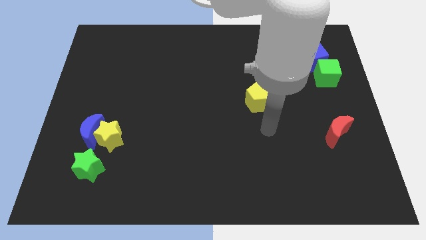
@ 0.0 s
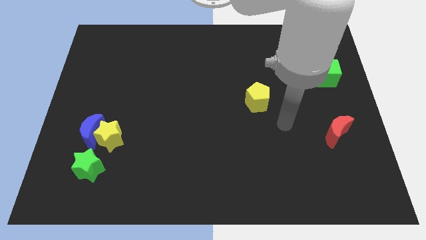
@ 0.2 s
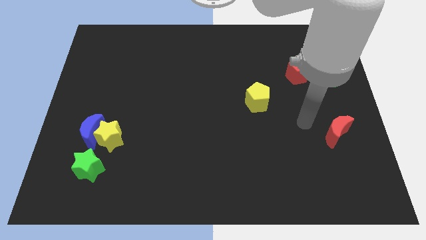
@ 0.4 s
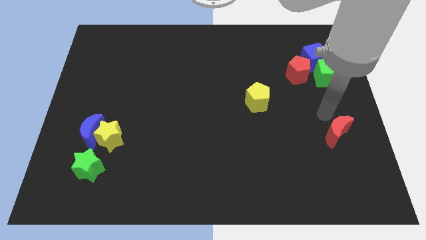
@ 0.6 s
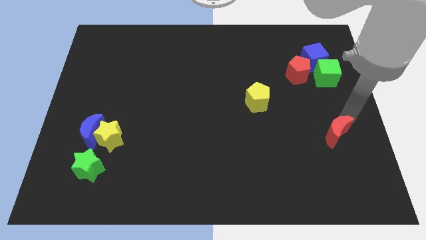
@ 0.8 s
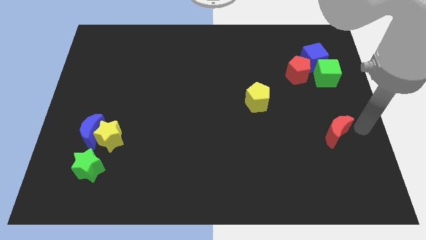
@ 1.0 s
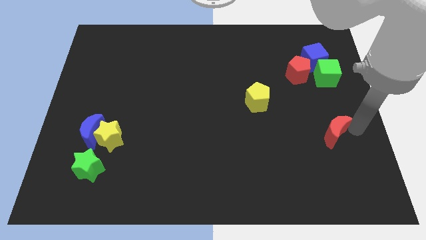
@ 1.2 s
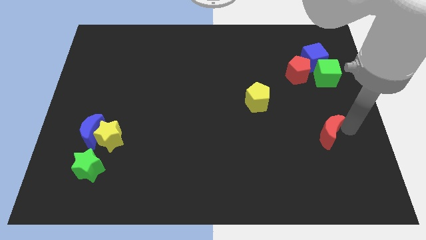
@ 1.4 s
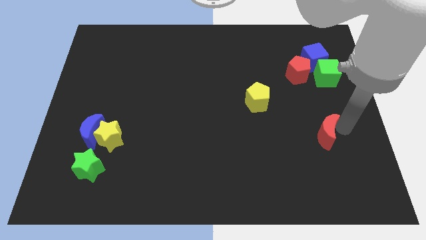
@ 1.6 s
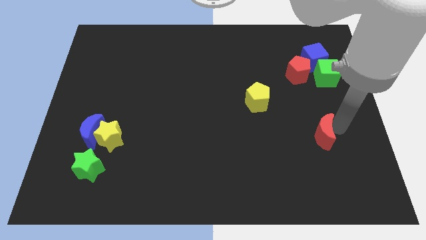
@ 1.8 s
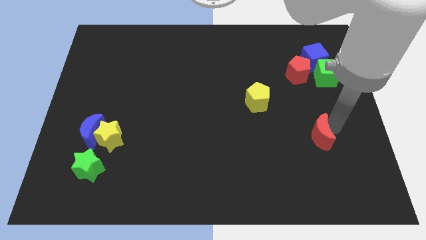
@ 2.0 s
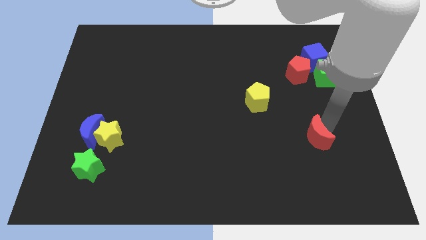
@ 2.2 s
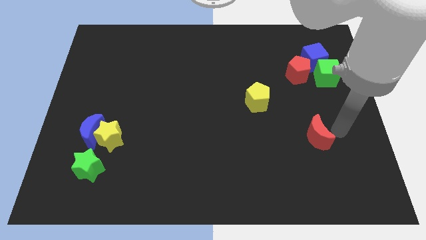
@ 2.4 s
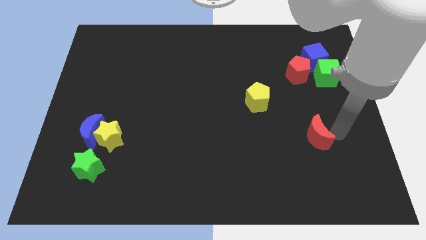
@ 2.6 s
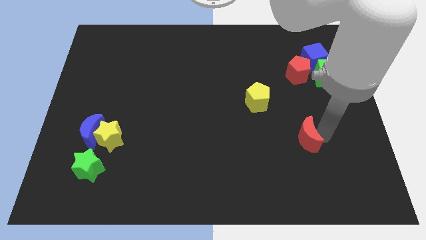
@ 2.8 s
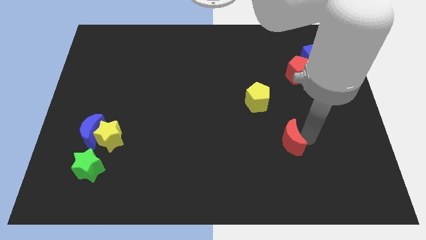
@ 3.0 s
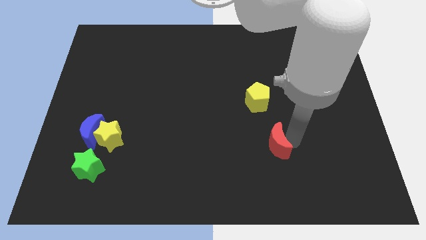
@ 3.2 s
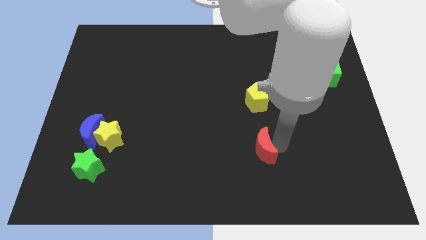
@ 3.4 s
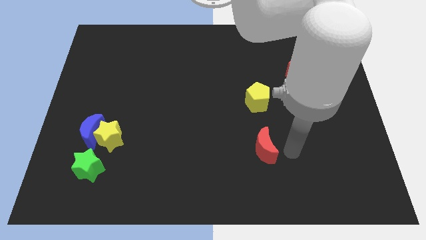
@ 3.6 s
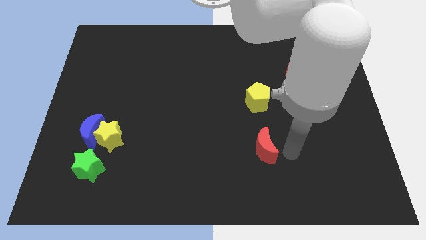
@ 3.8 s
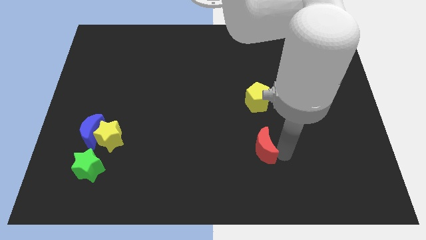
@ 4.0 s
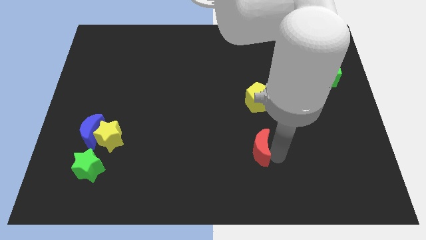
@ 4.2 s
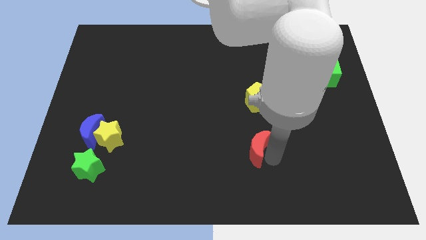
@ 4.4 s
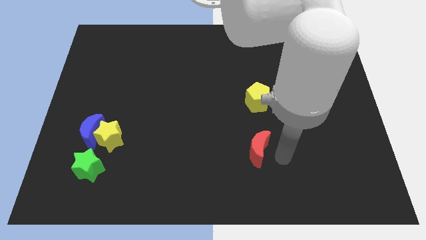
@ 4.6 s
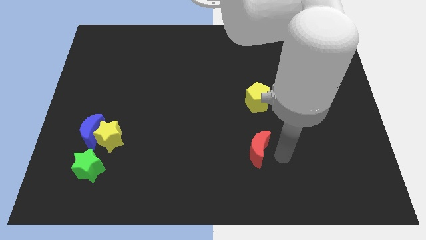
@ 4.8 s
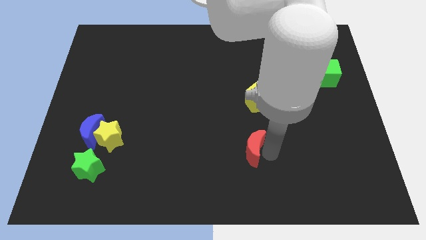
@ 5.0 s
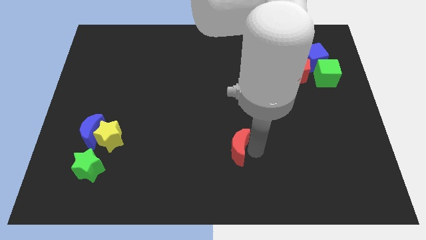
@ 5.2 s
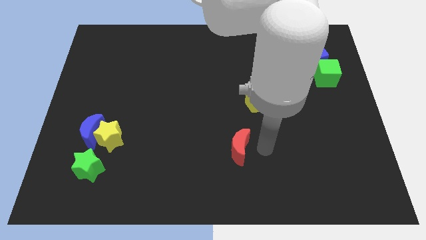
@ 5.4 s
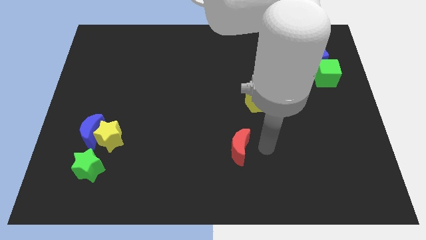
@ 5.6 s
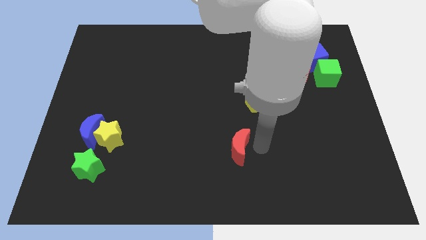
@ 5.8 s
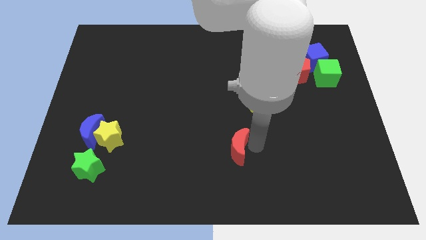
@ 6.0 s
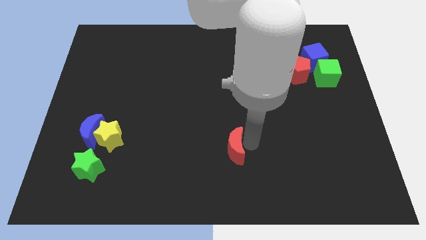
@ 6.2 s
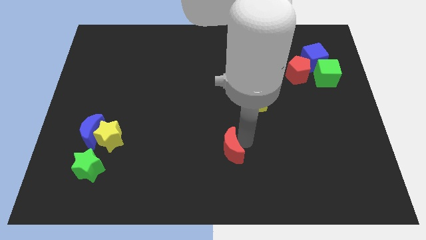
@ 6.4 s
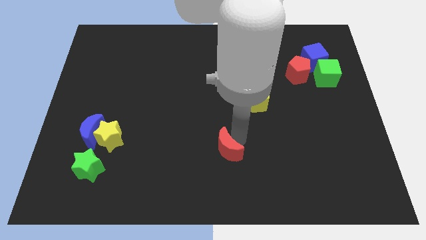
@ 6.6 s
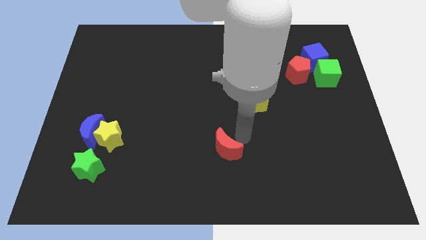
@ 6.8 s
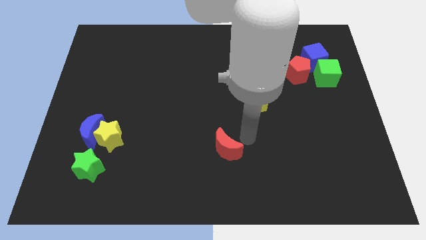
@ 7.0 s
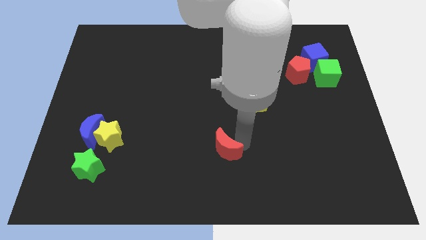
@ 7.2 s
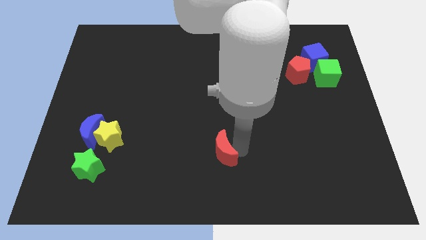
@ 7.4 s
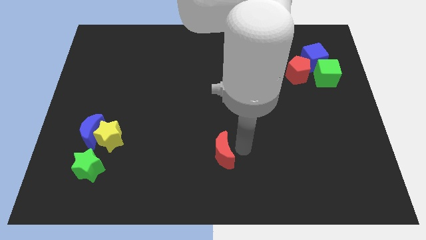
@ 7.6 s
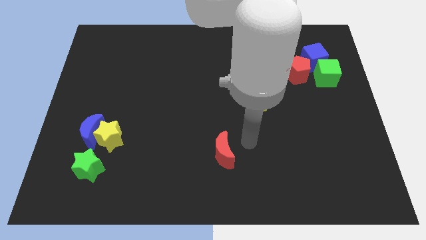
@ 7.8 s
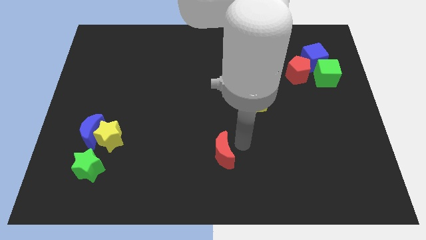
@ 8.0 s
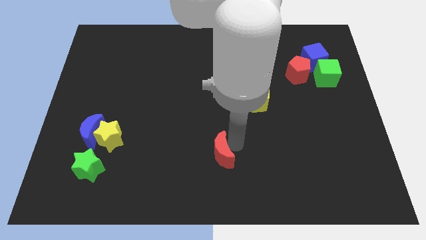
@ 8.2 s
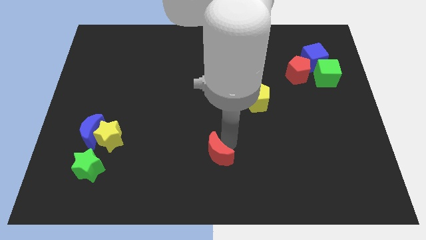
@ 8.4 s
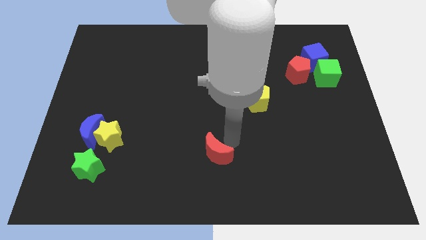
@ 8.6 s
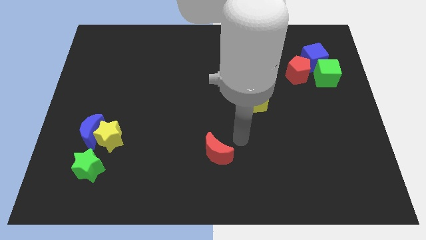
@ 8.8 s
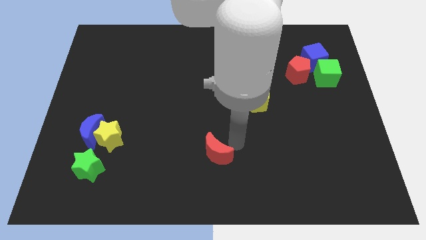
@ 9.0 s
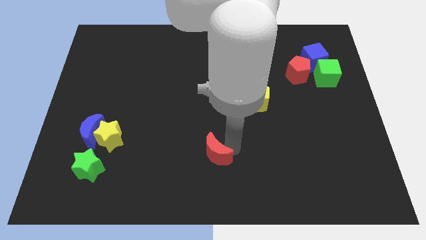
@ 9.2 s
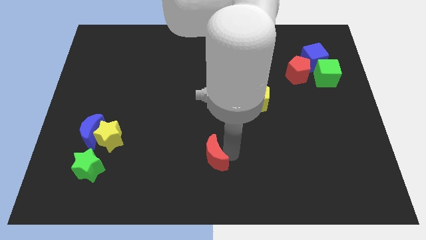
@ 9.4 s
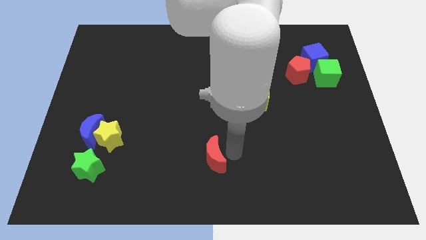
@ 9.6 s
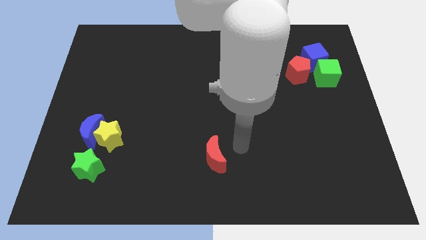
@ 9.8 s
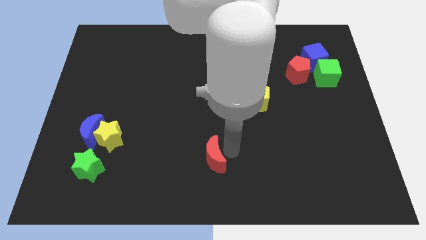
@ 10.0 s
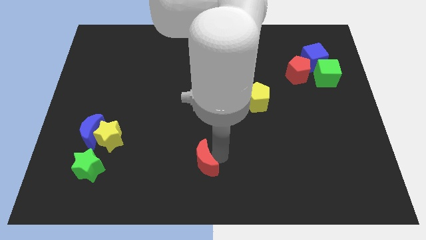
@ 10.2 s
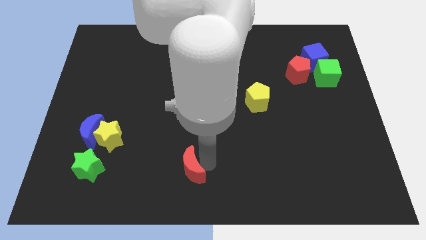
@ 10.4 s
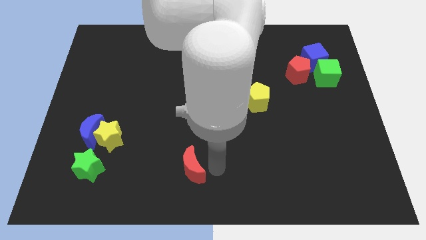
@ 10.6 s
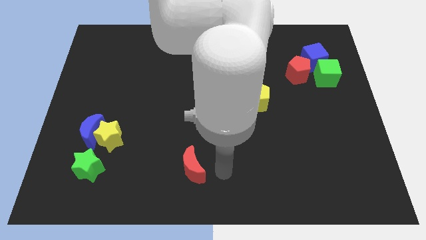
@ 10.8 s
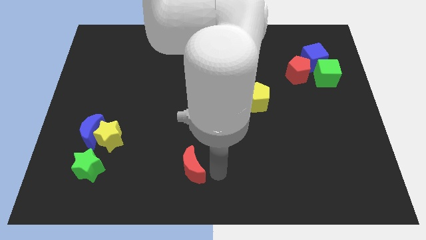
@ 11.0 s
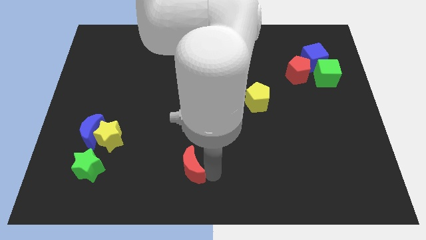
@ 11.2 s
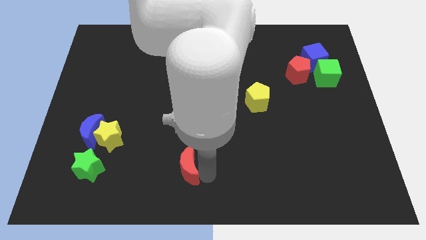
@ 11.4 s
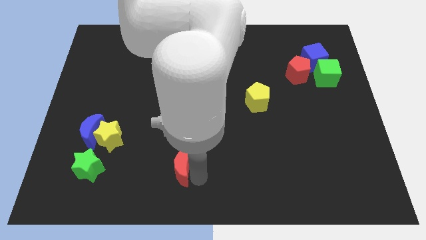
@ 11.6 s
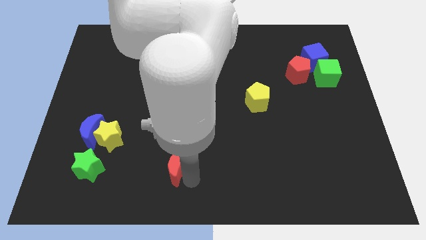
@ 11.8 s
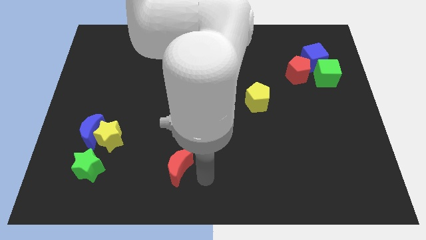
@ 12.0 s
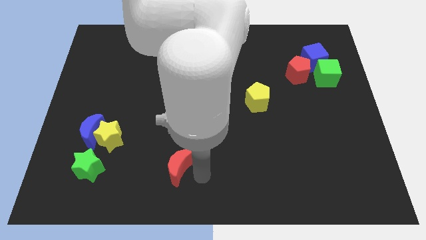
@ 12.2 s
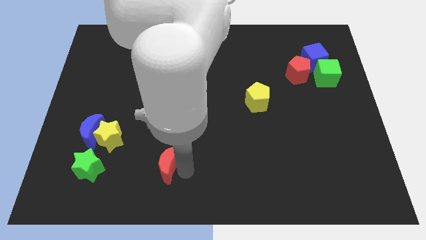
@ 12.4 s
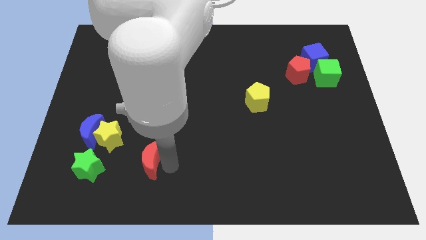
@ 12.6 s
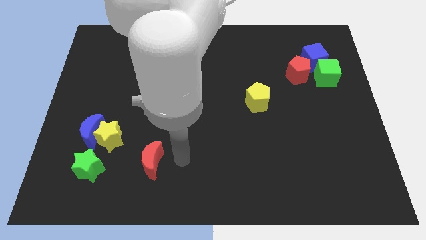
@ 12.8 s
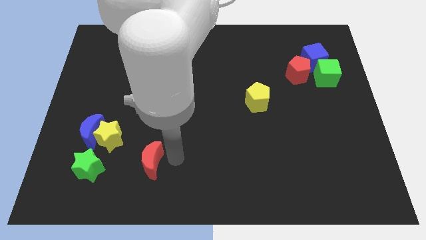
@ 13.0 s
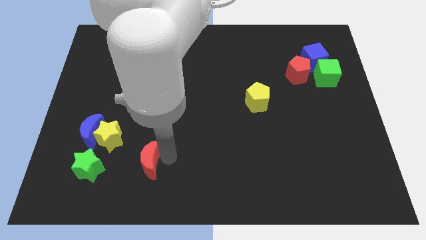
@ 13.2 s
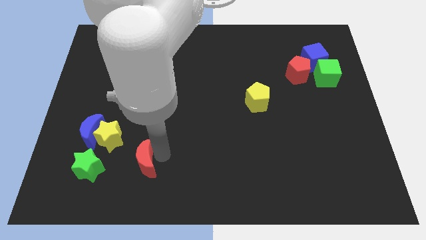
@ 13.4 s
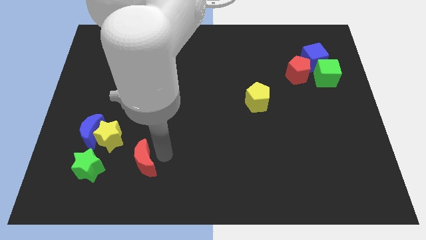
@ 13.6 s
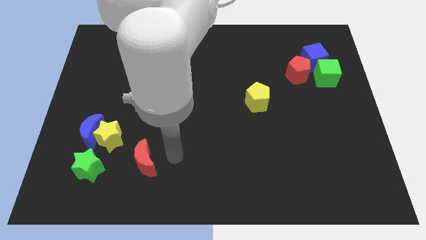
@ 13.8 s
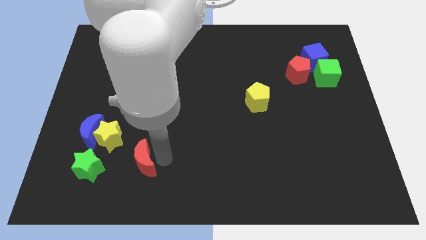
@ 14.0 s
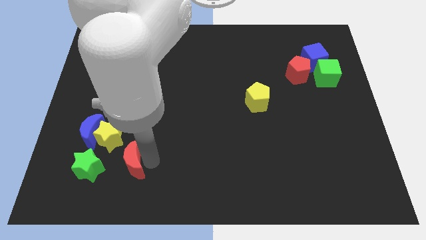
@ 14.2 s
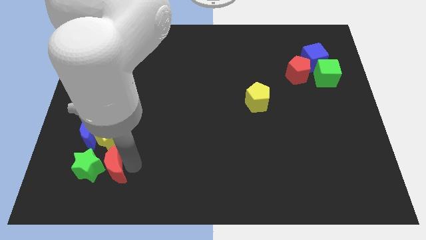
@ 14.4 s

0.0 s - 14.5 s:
push the red moon towards the green star
